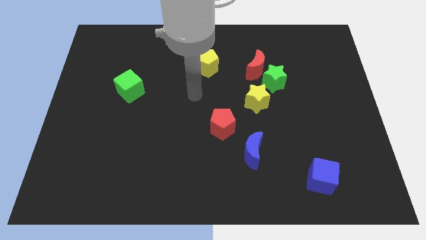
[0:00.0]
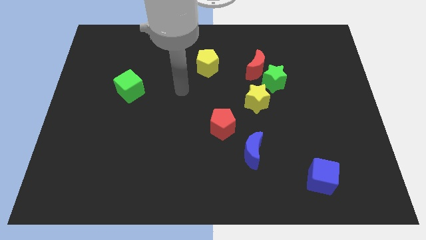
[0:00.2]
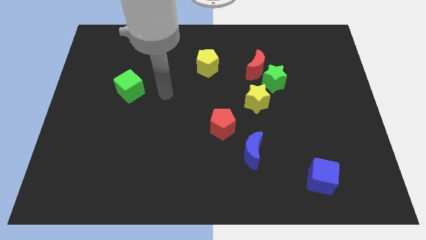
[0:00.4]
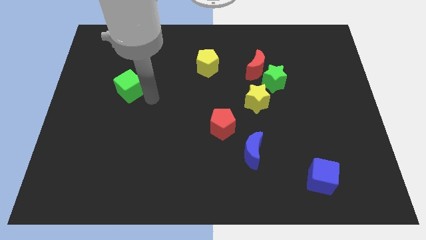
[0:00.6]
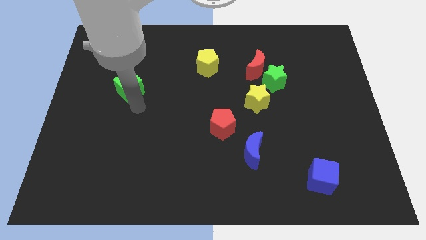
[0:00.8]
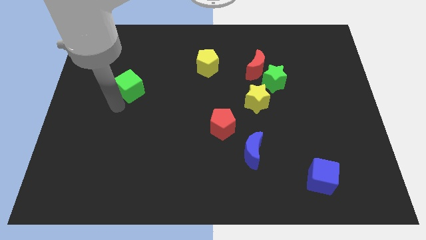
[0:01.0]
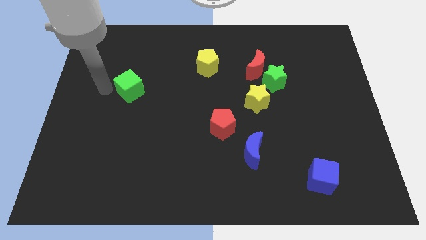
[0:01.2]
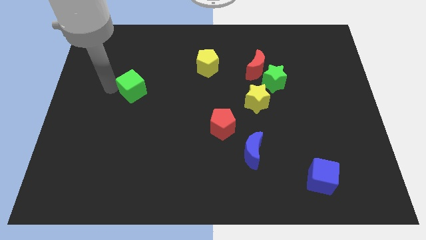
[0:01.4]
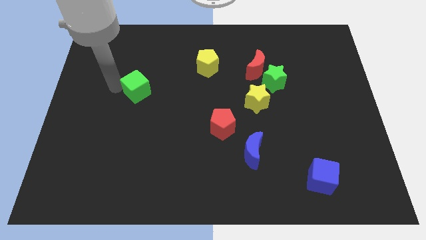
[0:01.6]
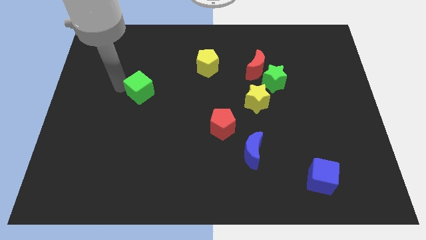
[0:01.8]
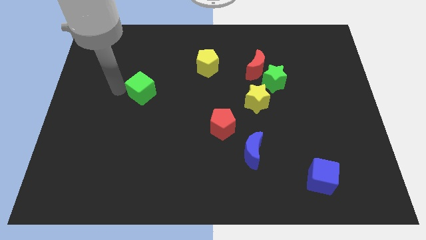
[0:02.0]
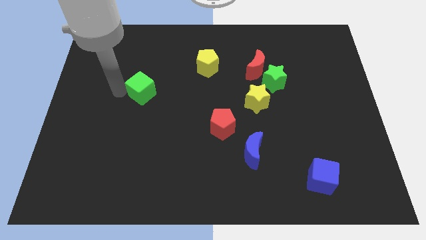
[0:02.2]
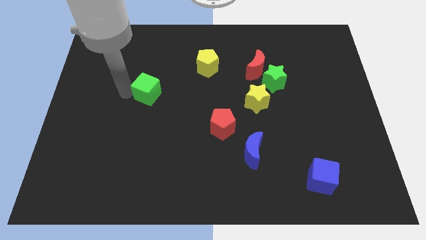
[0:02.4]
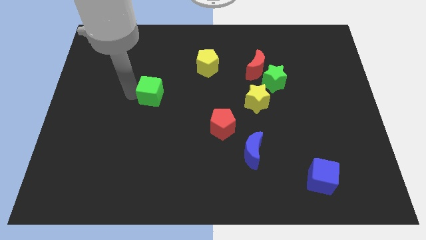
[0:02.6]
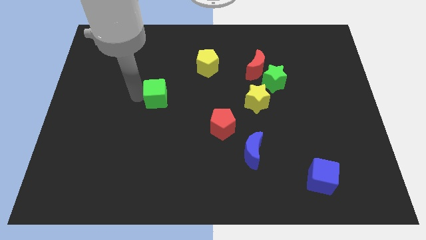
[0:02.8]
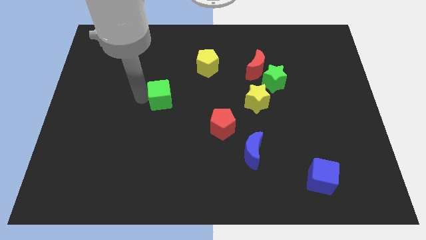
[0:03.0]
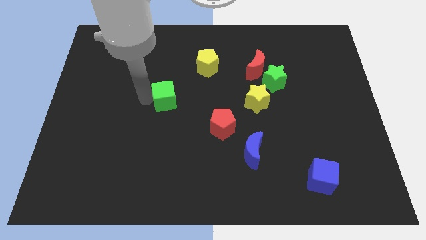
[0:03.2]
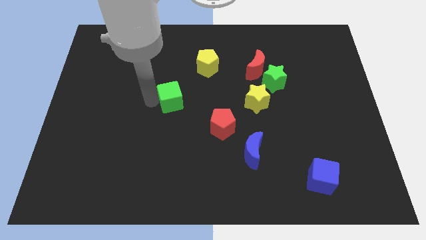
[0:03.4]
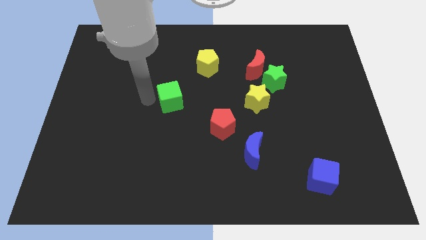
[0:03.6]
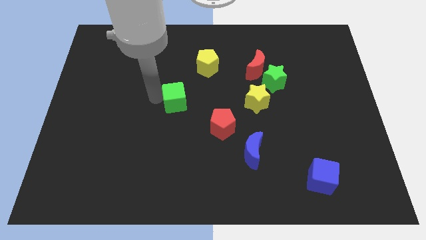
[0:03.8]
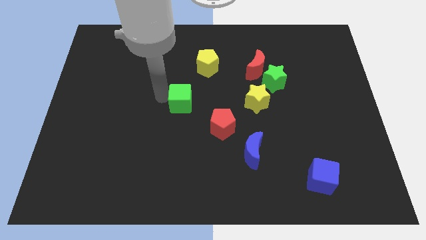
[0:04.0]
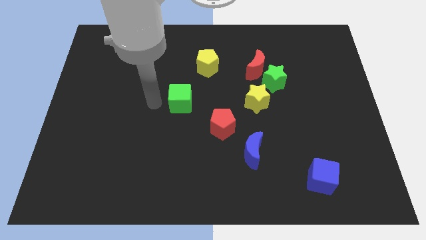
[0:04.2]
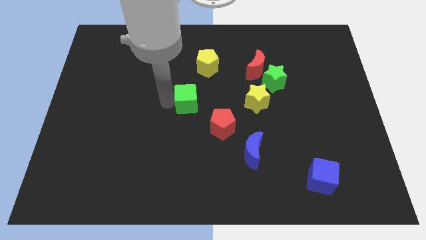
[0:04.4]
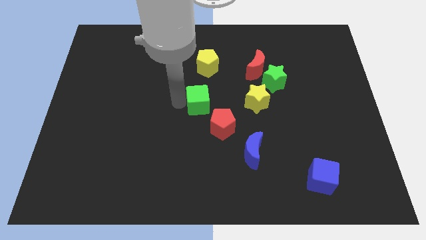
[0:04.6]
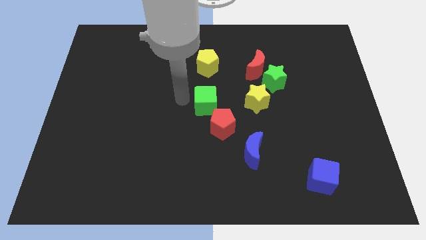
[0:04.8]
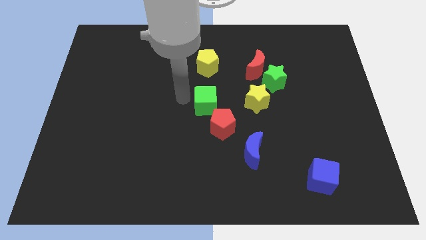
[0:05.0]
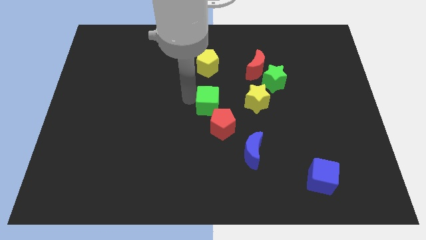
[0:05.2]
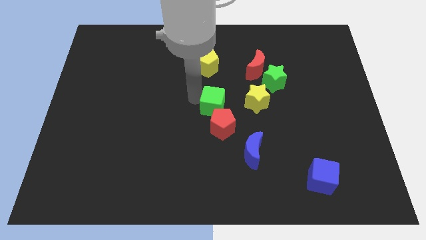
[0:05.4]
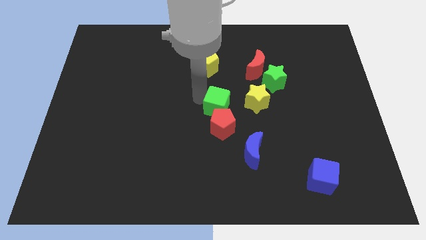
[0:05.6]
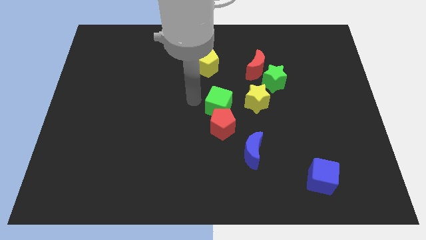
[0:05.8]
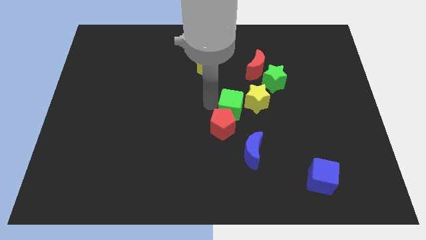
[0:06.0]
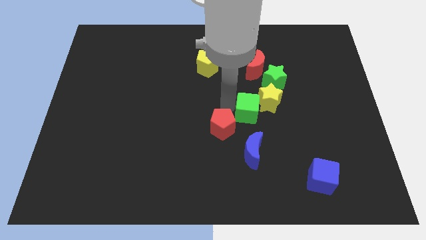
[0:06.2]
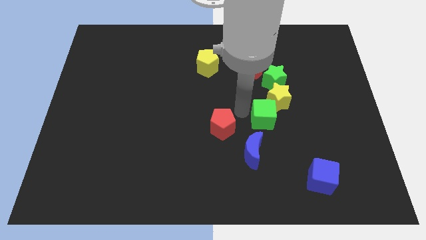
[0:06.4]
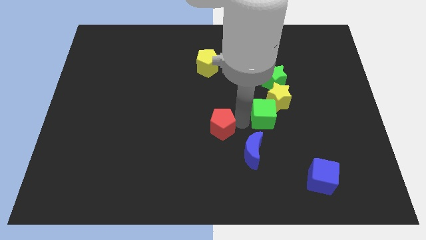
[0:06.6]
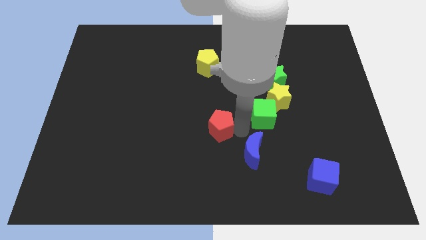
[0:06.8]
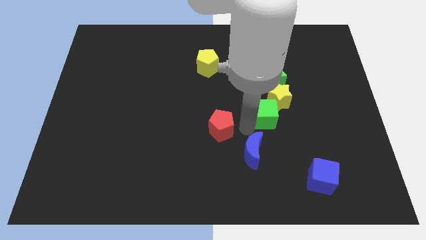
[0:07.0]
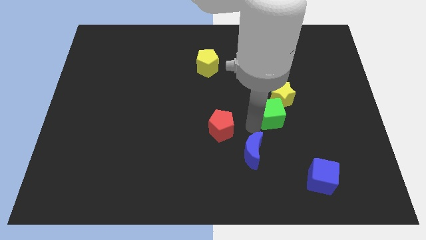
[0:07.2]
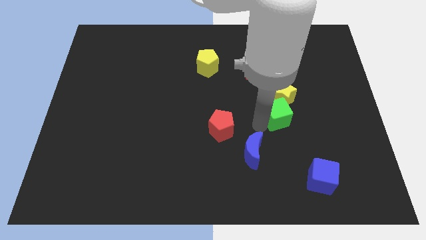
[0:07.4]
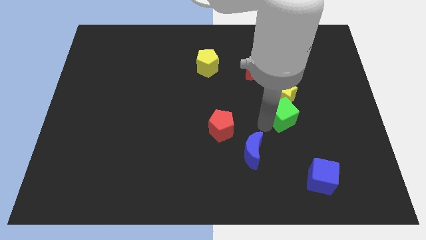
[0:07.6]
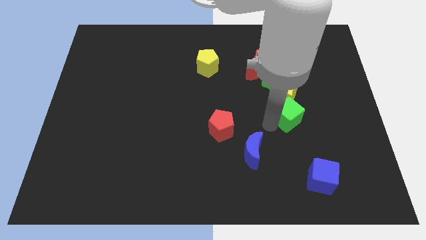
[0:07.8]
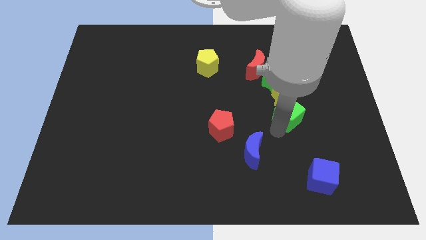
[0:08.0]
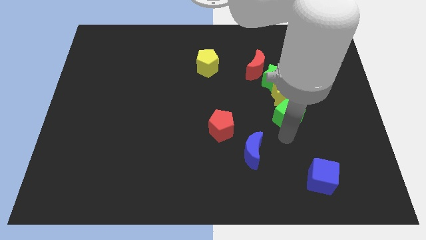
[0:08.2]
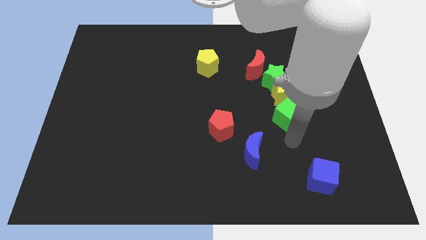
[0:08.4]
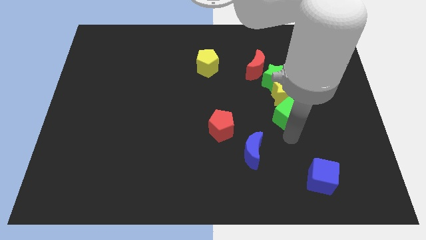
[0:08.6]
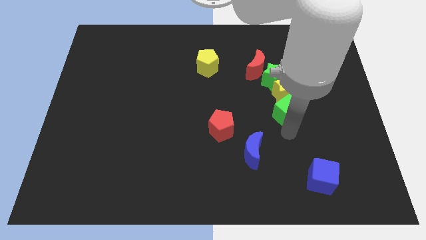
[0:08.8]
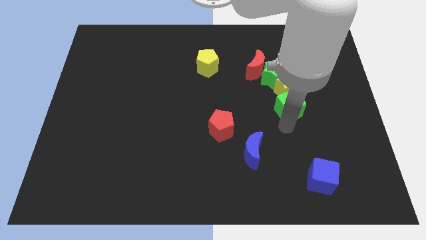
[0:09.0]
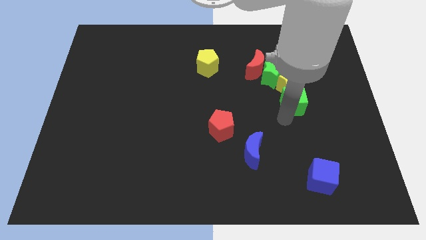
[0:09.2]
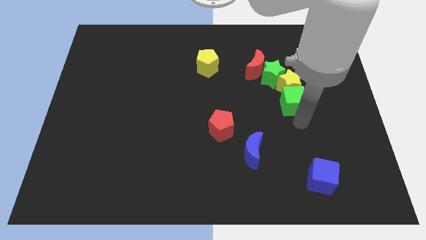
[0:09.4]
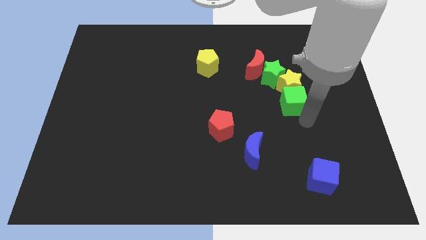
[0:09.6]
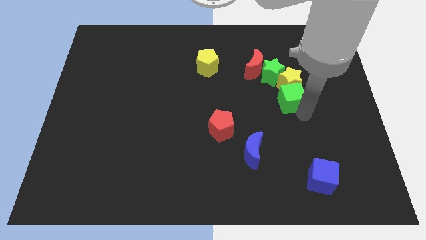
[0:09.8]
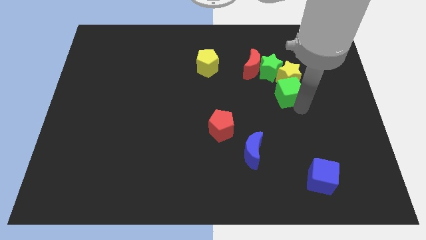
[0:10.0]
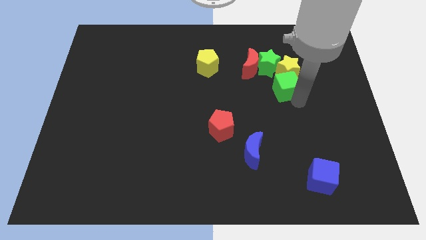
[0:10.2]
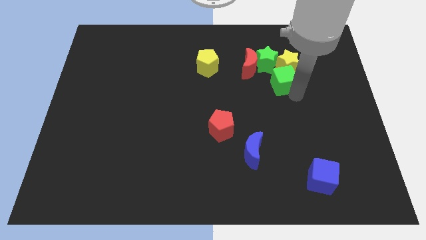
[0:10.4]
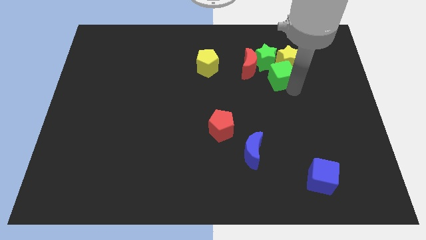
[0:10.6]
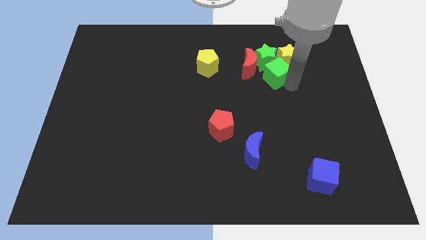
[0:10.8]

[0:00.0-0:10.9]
move the green cube to the green star

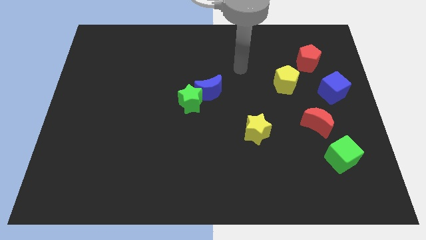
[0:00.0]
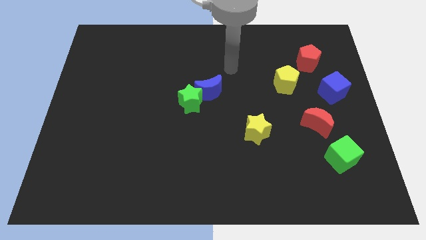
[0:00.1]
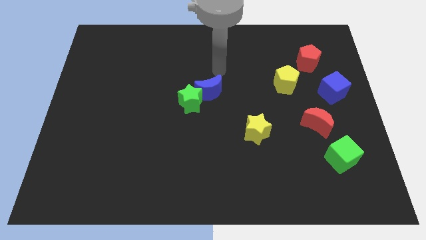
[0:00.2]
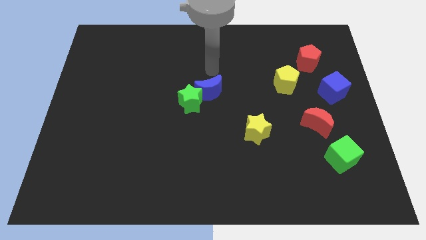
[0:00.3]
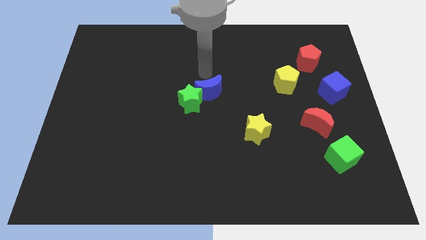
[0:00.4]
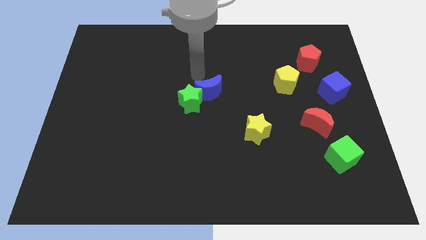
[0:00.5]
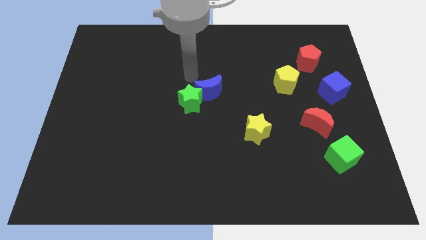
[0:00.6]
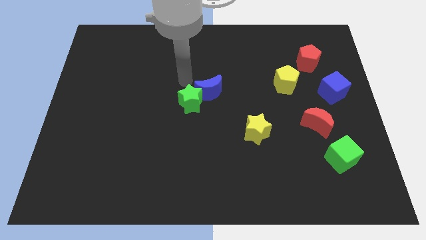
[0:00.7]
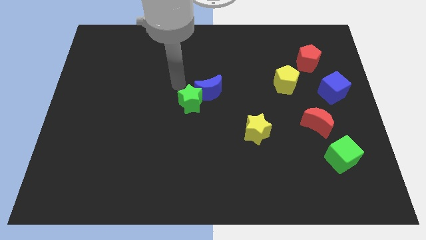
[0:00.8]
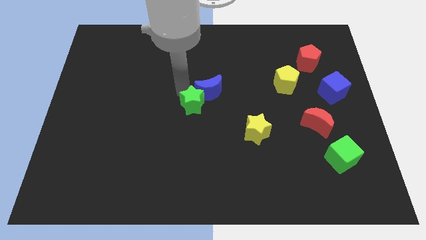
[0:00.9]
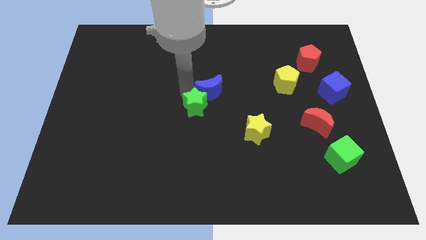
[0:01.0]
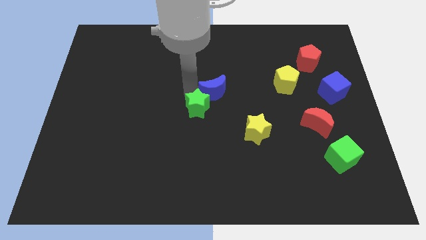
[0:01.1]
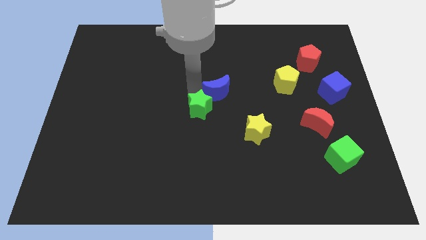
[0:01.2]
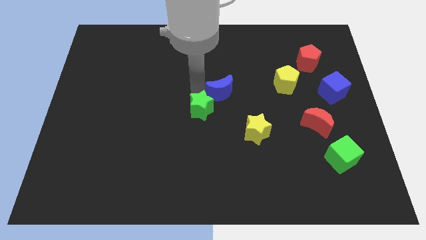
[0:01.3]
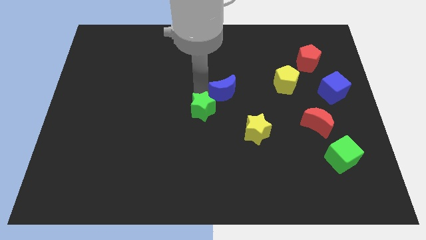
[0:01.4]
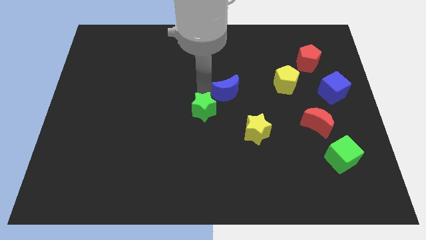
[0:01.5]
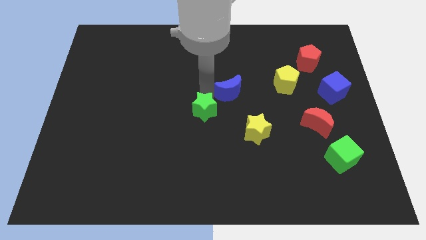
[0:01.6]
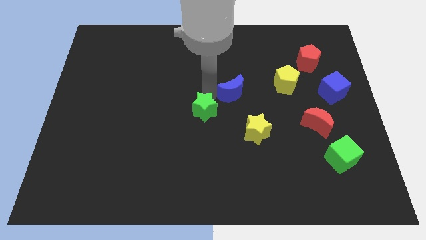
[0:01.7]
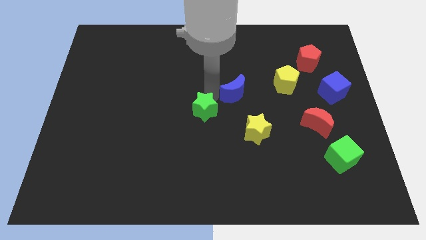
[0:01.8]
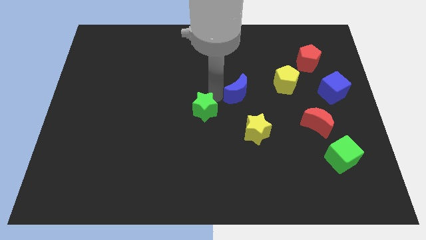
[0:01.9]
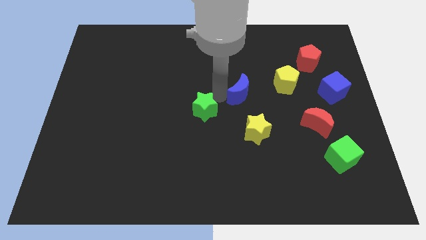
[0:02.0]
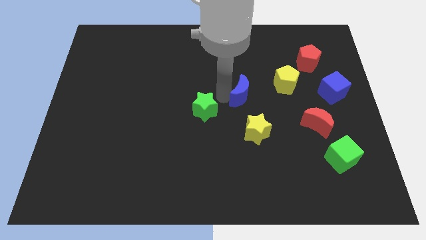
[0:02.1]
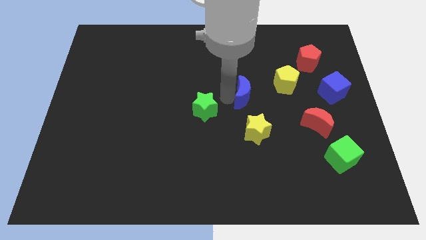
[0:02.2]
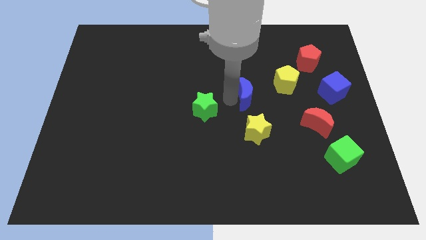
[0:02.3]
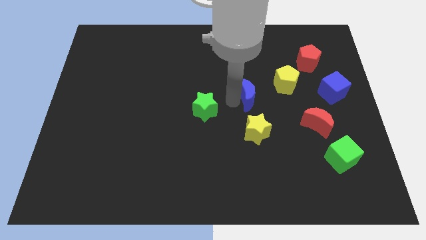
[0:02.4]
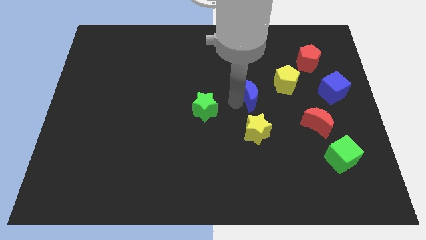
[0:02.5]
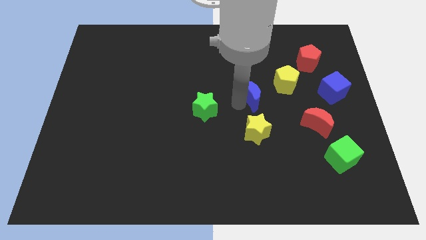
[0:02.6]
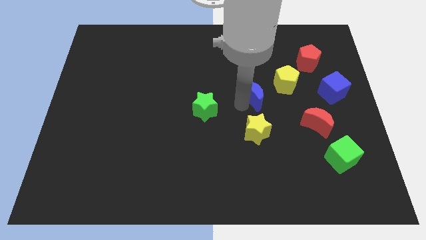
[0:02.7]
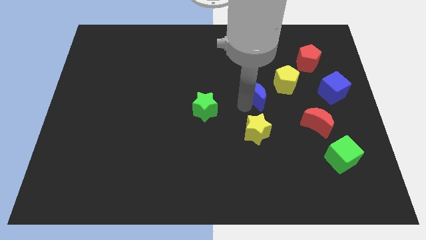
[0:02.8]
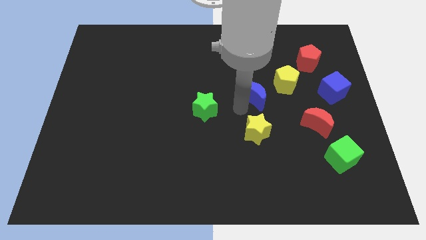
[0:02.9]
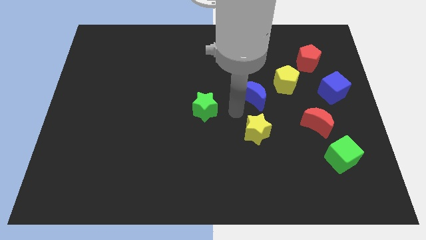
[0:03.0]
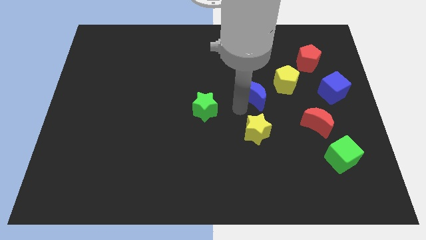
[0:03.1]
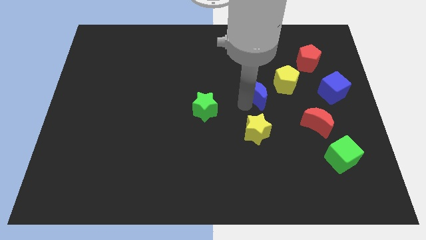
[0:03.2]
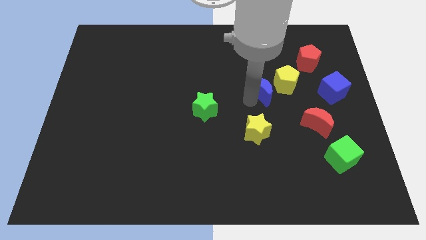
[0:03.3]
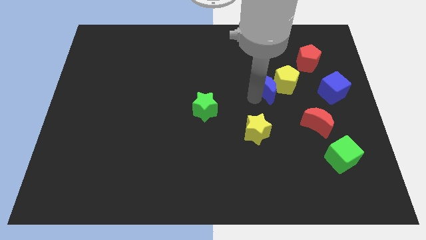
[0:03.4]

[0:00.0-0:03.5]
put the blue moon towards the yellow pentagon
